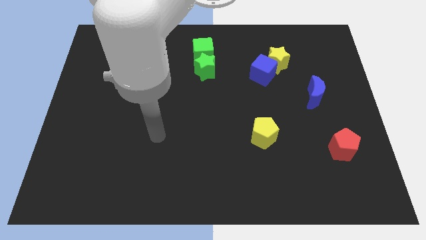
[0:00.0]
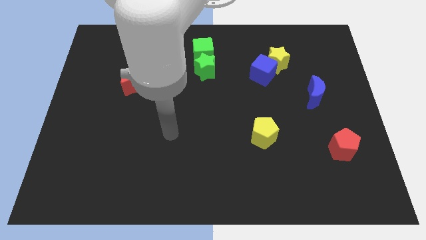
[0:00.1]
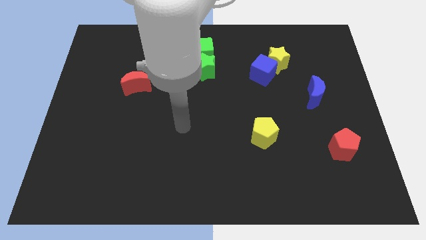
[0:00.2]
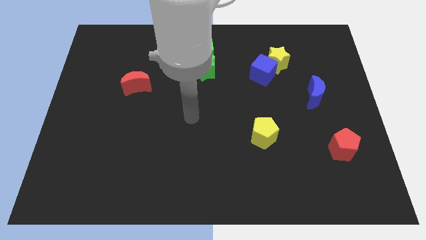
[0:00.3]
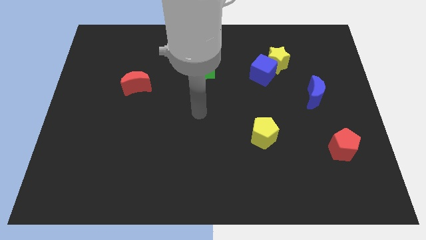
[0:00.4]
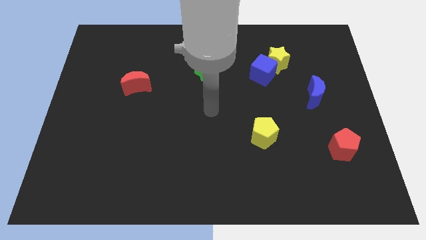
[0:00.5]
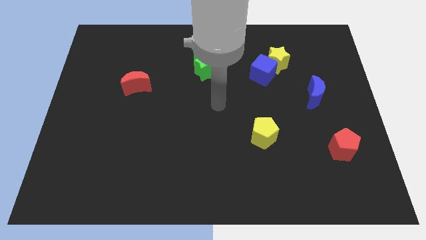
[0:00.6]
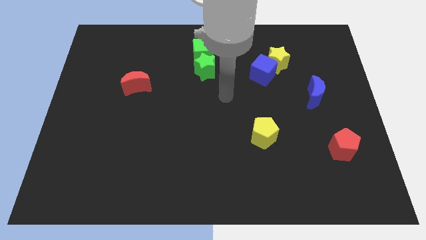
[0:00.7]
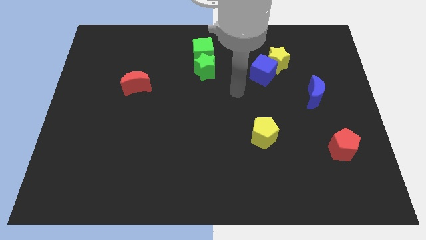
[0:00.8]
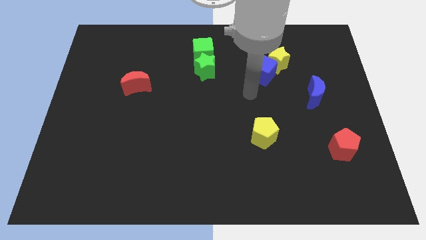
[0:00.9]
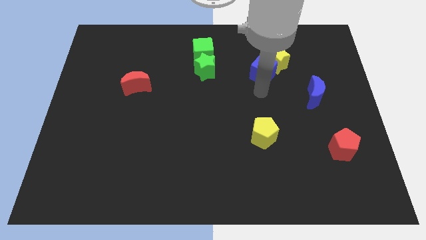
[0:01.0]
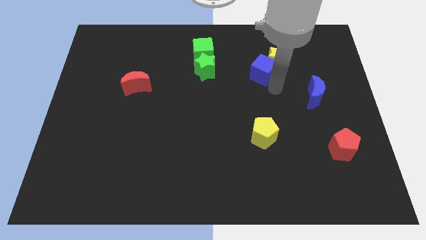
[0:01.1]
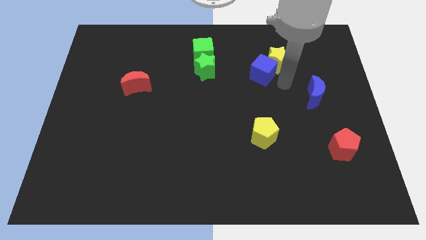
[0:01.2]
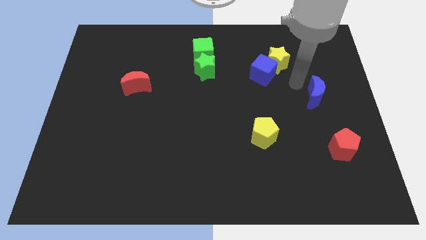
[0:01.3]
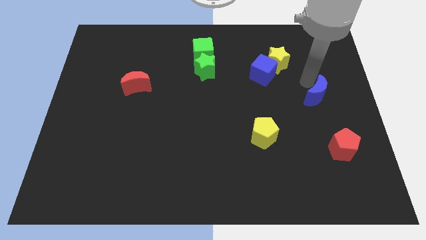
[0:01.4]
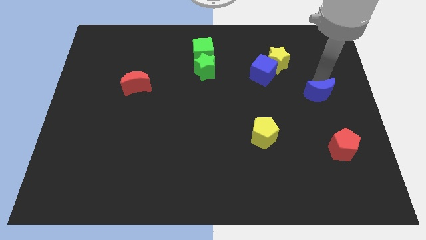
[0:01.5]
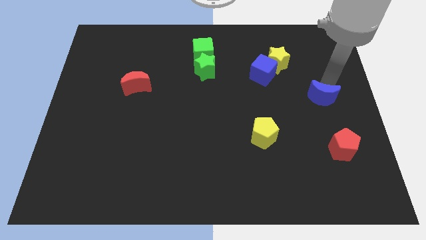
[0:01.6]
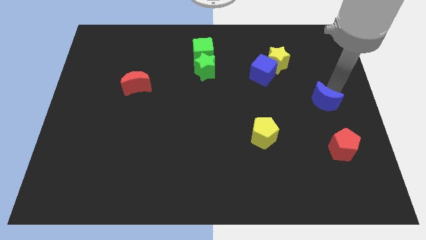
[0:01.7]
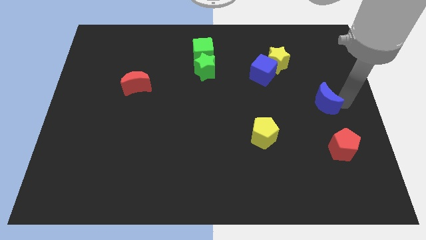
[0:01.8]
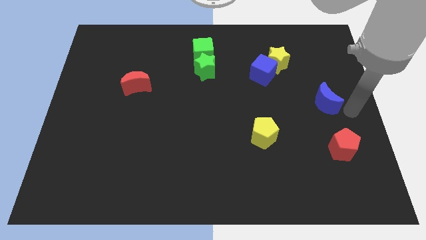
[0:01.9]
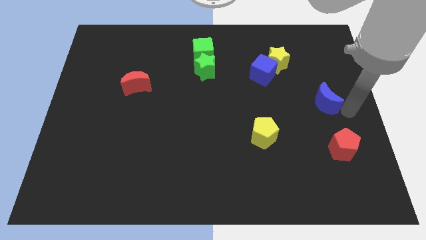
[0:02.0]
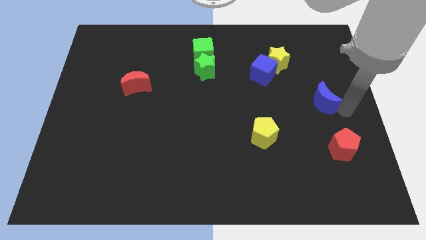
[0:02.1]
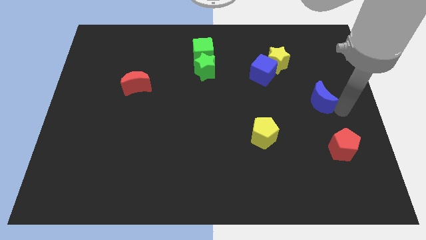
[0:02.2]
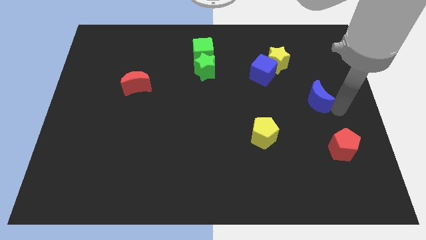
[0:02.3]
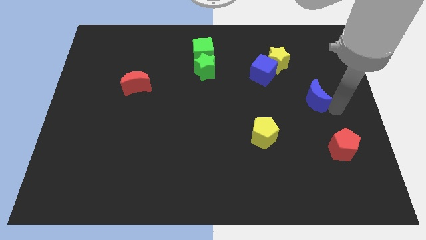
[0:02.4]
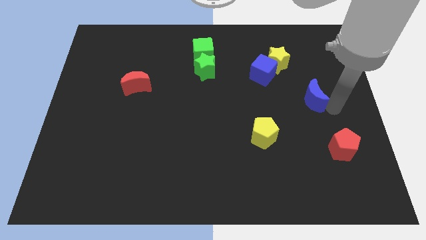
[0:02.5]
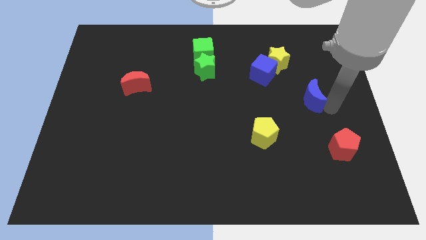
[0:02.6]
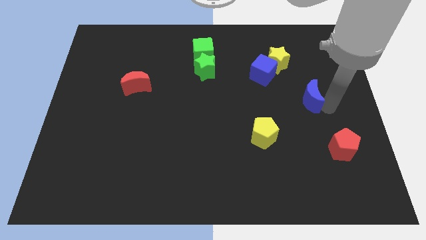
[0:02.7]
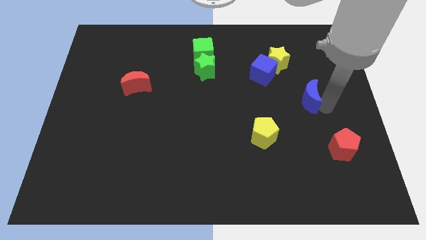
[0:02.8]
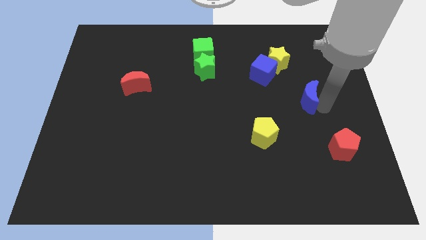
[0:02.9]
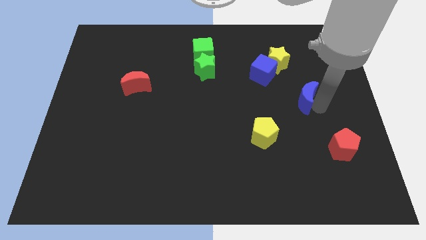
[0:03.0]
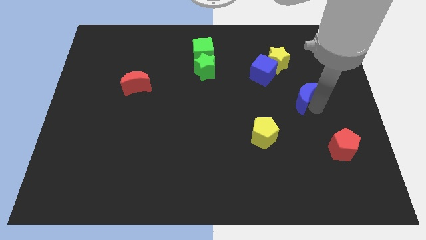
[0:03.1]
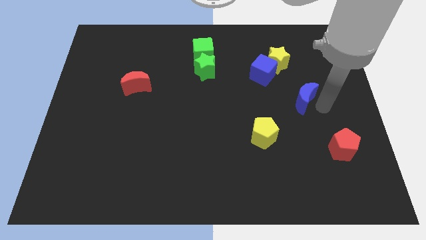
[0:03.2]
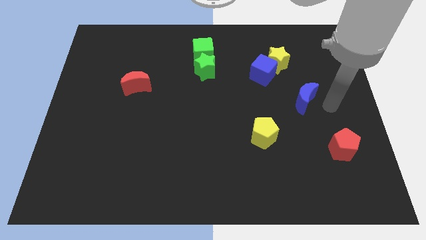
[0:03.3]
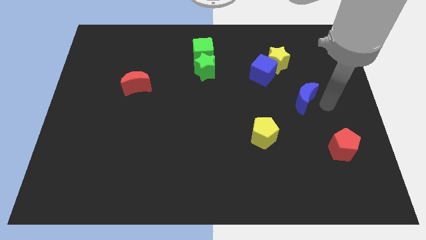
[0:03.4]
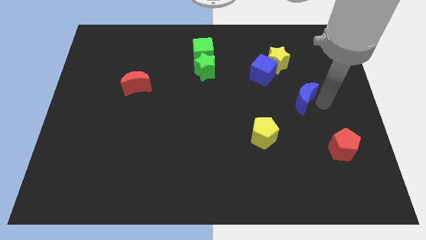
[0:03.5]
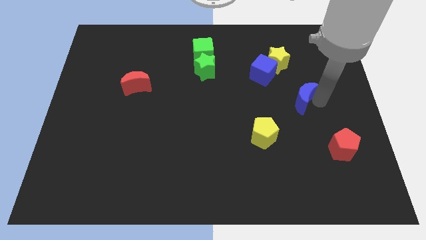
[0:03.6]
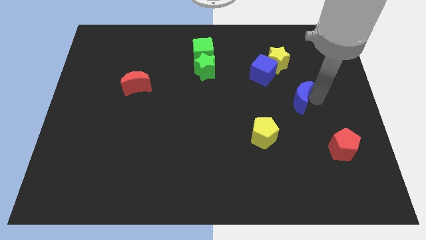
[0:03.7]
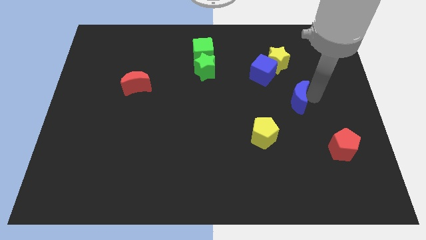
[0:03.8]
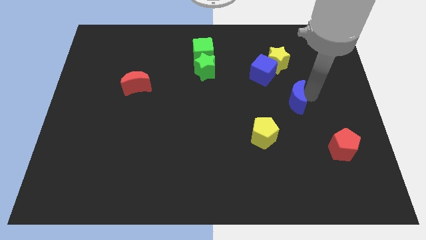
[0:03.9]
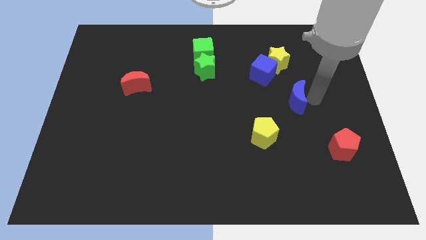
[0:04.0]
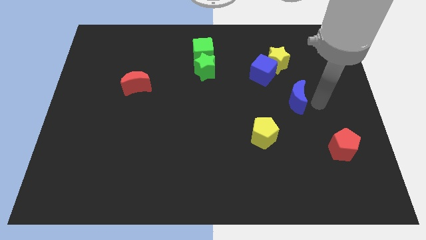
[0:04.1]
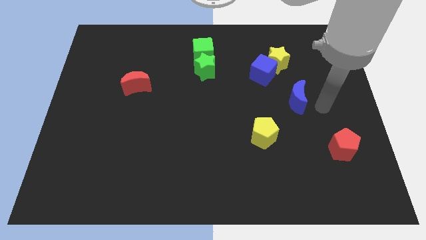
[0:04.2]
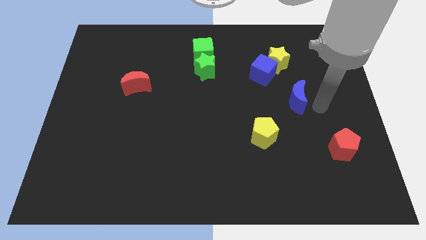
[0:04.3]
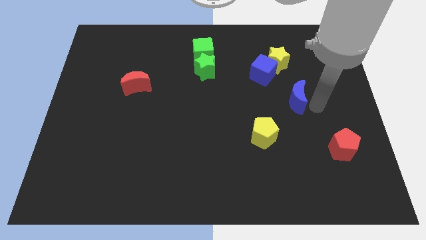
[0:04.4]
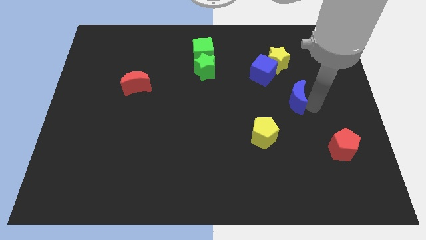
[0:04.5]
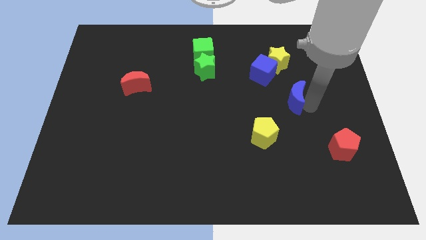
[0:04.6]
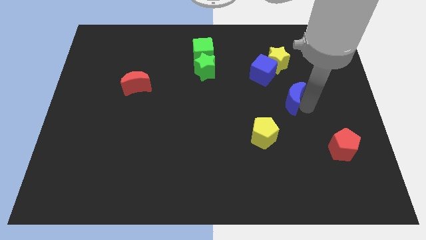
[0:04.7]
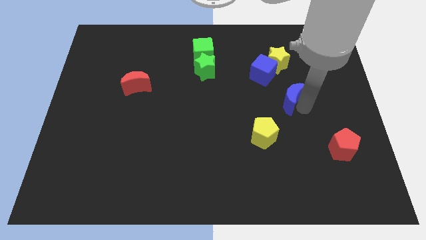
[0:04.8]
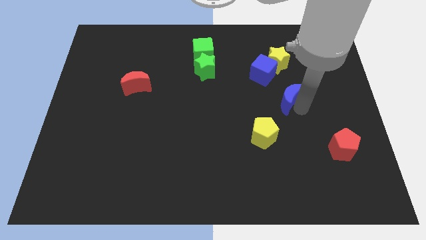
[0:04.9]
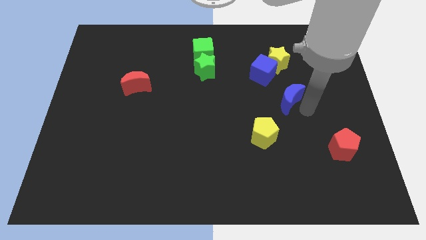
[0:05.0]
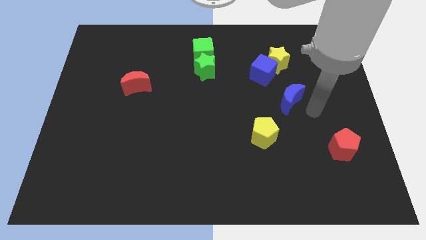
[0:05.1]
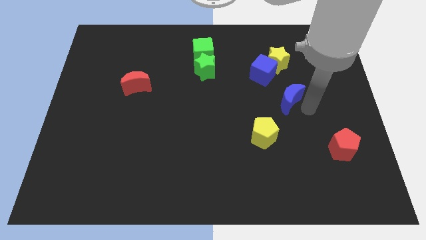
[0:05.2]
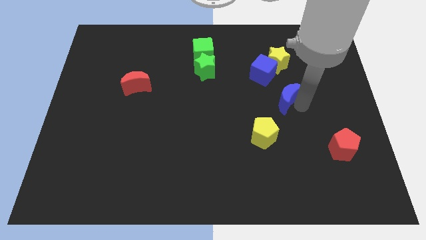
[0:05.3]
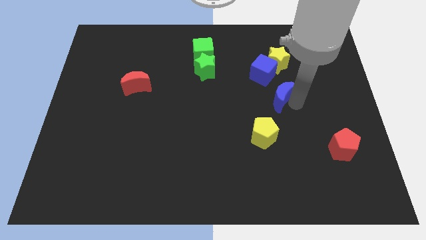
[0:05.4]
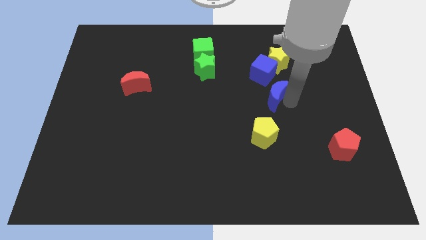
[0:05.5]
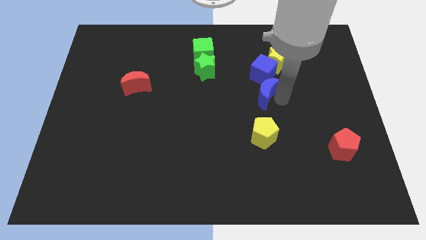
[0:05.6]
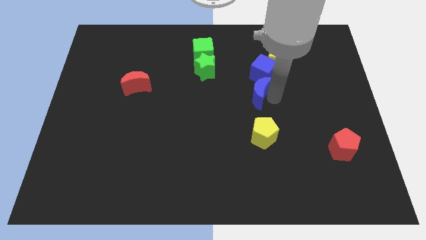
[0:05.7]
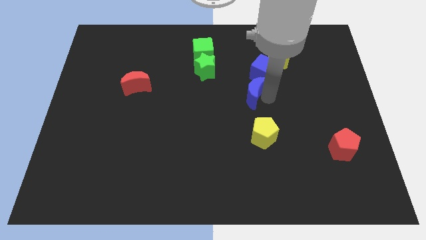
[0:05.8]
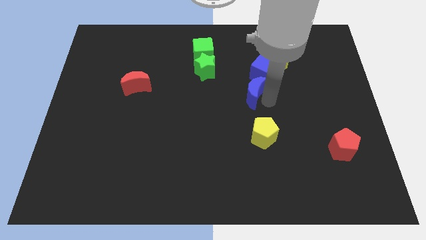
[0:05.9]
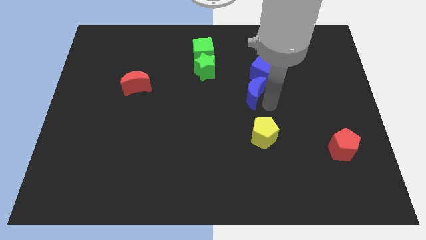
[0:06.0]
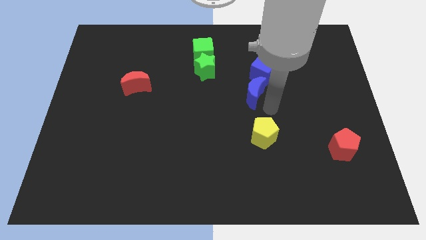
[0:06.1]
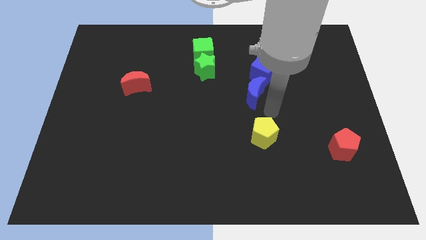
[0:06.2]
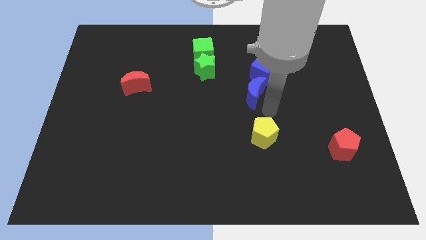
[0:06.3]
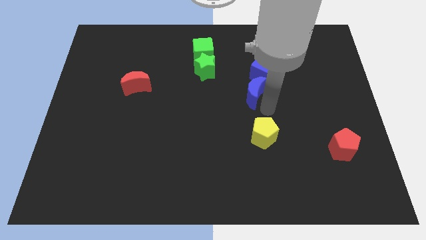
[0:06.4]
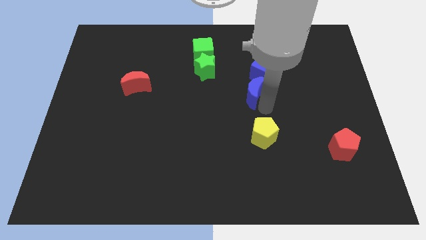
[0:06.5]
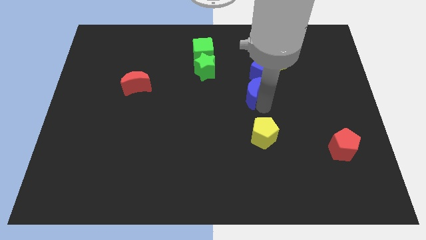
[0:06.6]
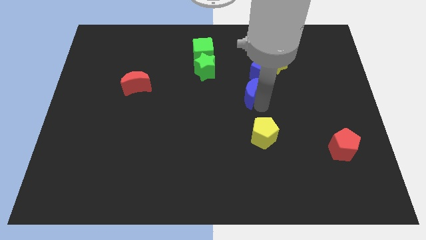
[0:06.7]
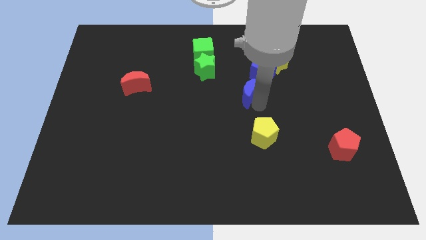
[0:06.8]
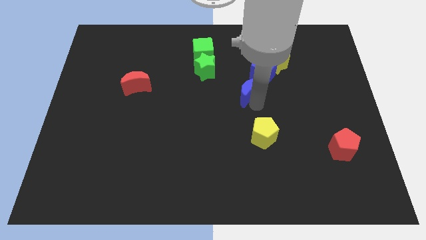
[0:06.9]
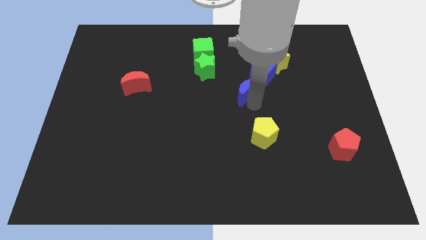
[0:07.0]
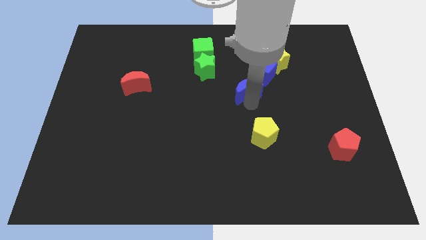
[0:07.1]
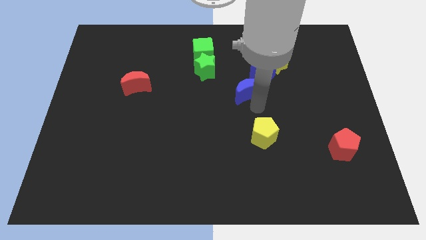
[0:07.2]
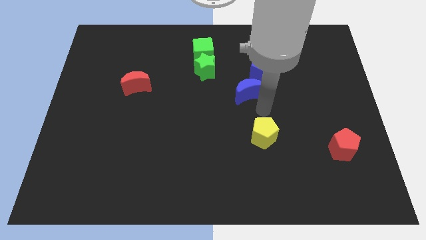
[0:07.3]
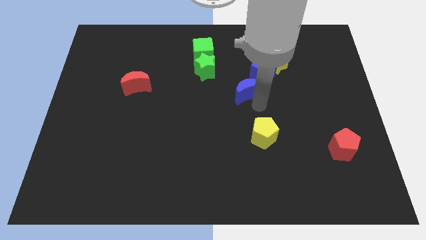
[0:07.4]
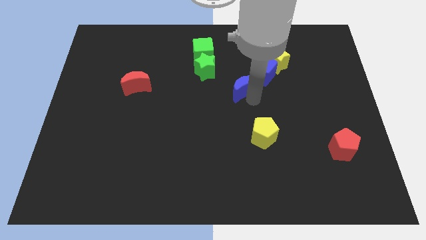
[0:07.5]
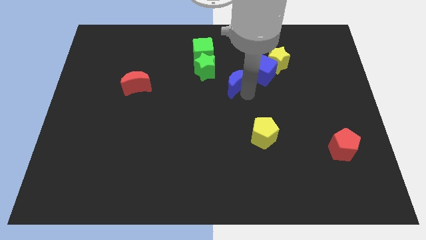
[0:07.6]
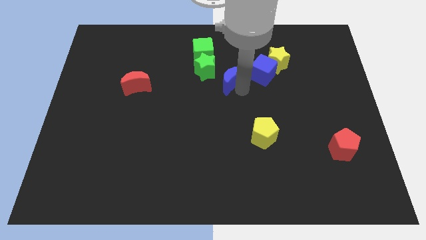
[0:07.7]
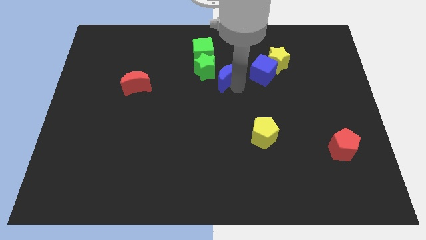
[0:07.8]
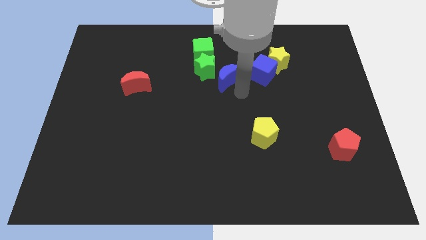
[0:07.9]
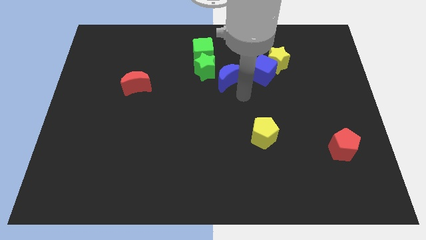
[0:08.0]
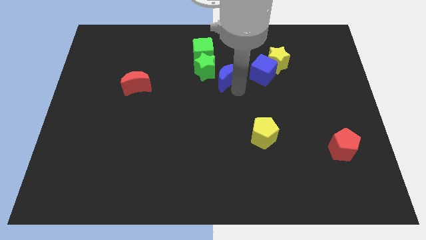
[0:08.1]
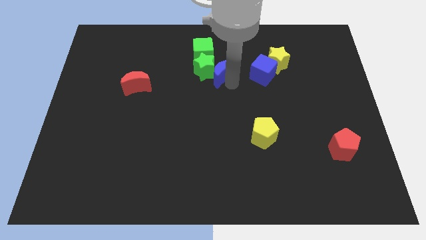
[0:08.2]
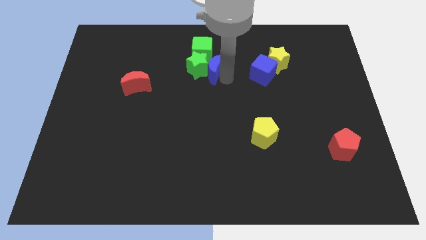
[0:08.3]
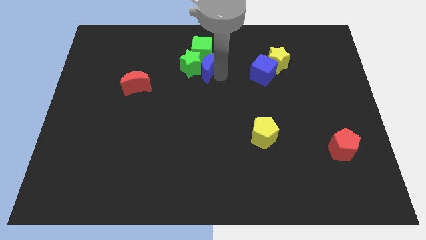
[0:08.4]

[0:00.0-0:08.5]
put the blue moon to the green cube

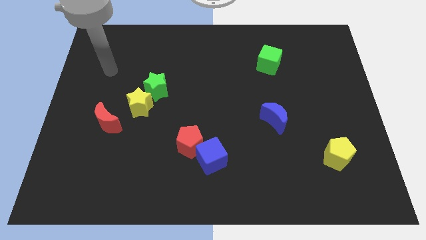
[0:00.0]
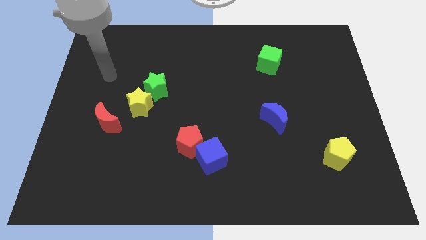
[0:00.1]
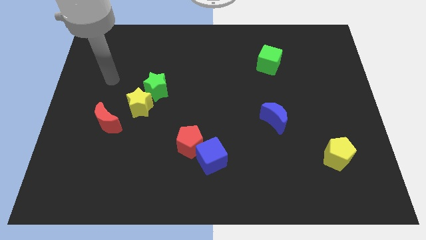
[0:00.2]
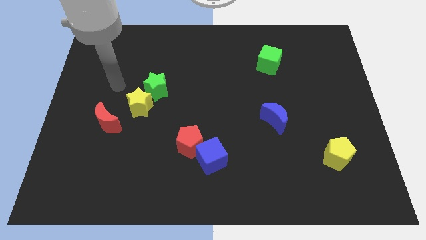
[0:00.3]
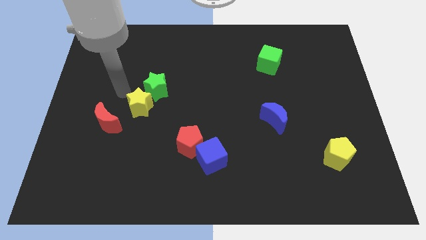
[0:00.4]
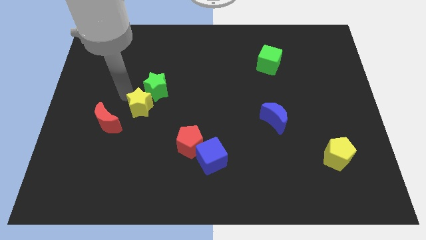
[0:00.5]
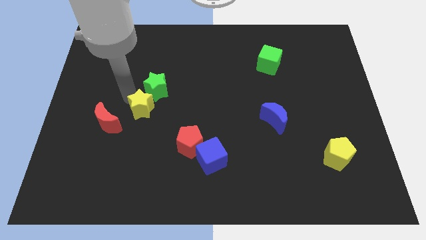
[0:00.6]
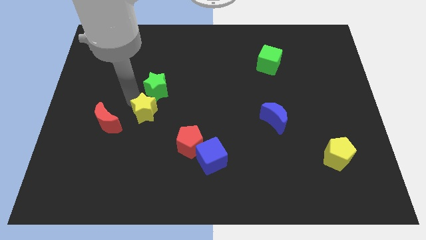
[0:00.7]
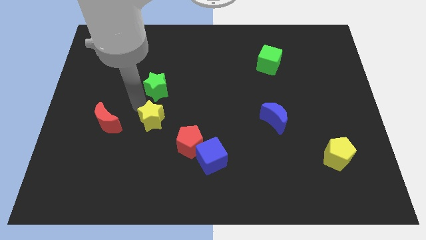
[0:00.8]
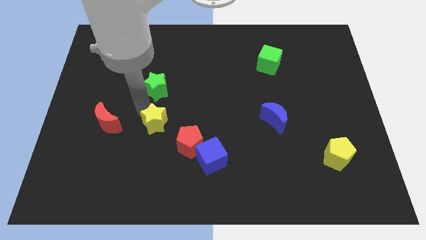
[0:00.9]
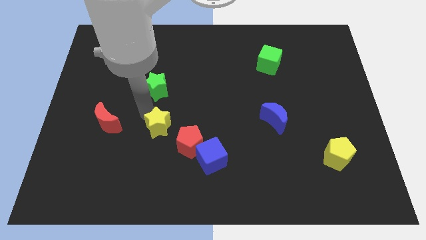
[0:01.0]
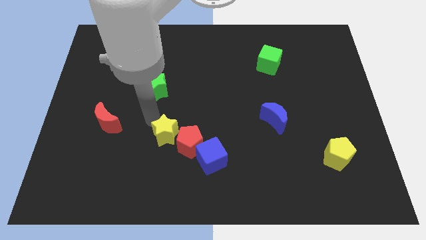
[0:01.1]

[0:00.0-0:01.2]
put the yellow star to the red pentagon
